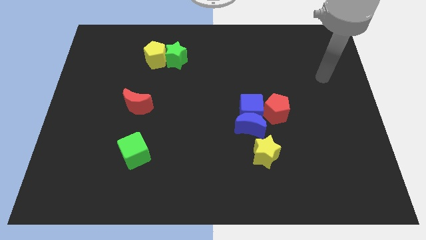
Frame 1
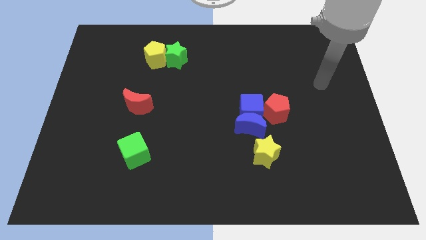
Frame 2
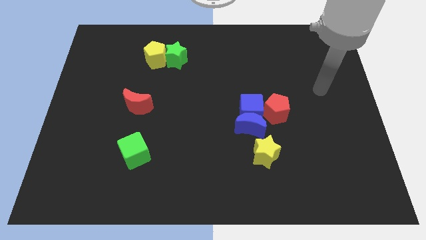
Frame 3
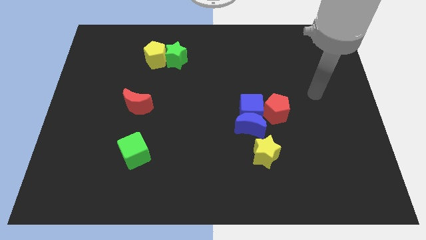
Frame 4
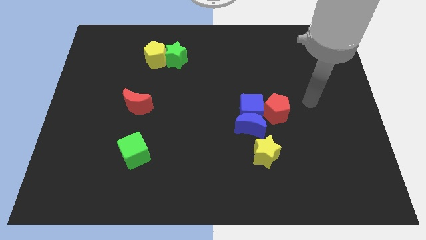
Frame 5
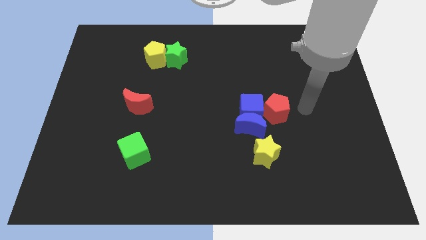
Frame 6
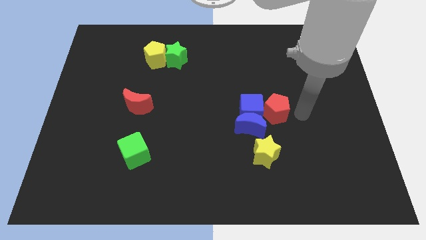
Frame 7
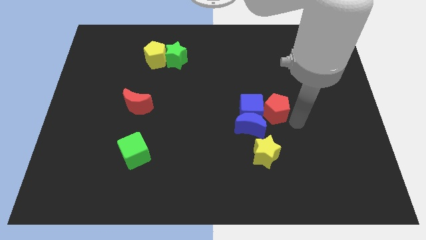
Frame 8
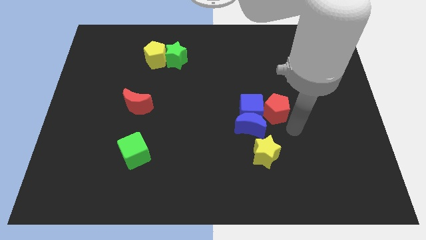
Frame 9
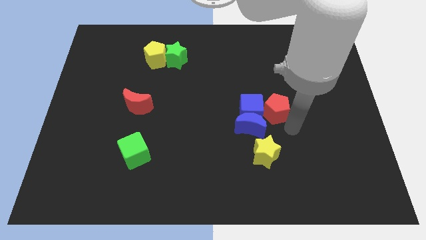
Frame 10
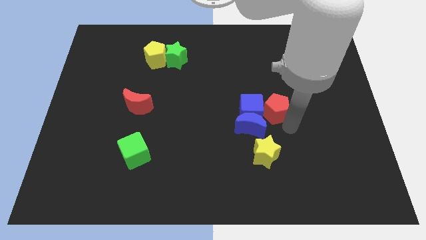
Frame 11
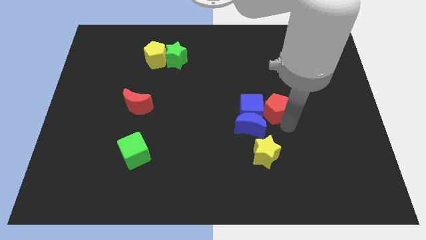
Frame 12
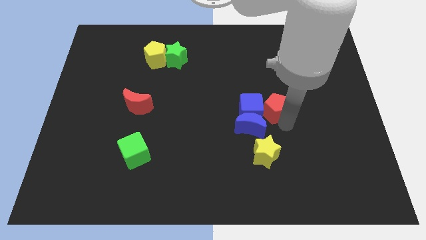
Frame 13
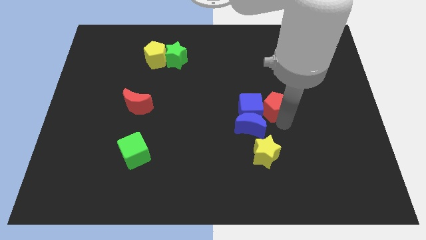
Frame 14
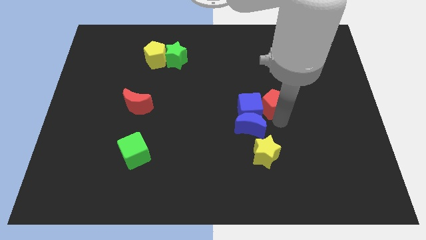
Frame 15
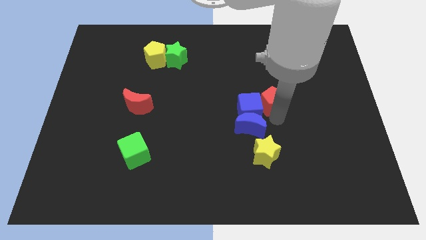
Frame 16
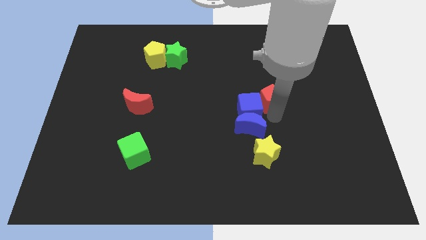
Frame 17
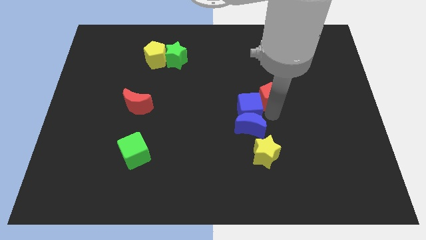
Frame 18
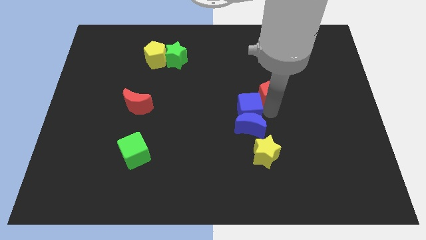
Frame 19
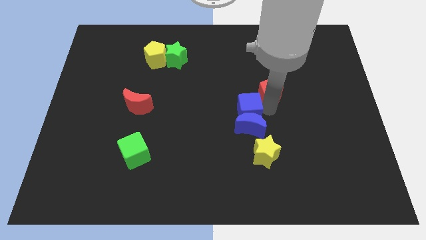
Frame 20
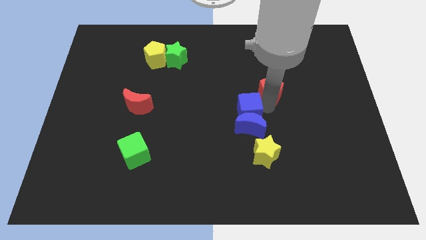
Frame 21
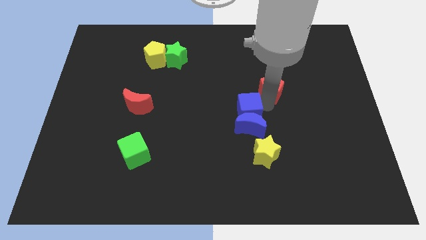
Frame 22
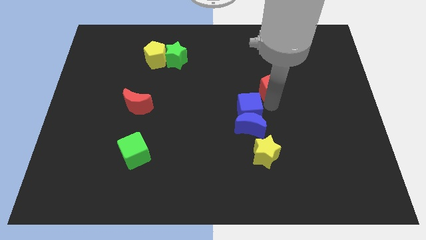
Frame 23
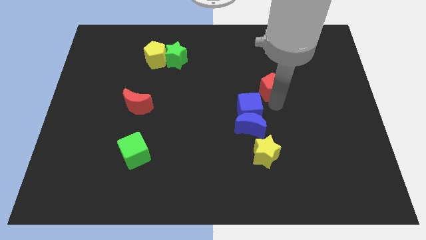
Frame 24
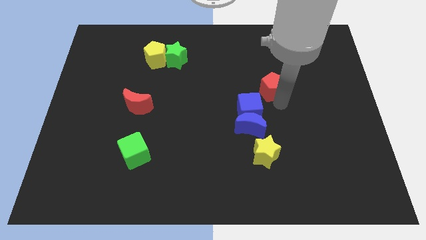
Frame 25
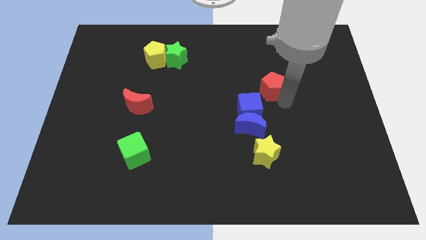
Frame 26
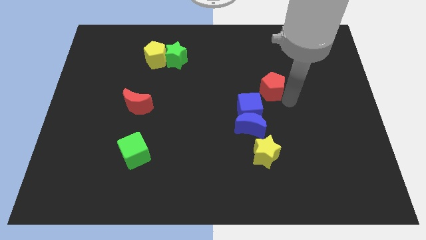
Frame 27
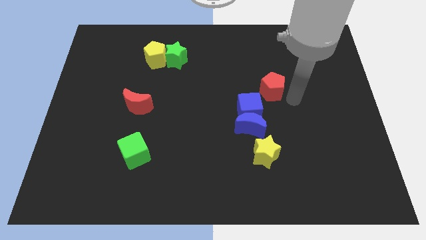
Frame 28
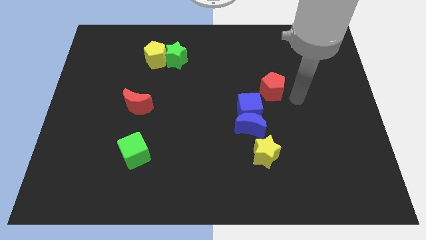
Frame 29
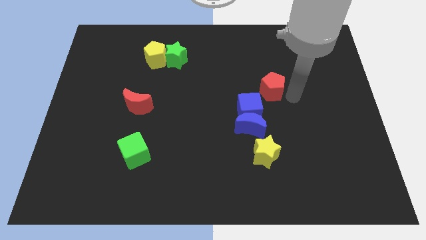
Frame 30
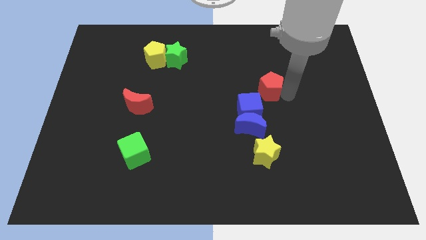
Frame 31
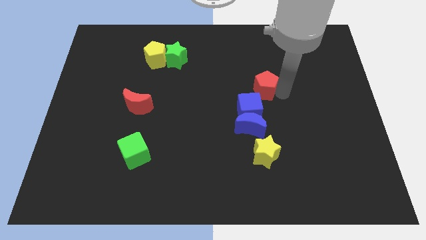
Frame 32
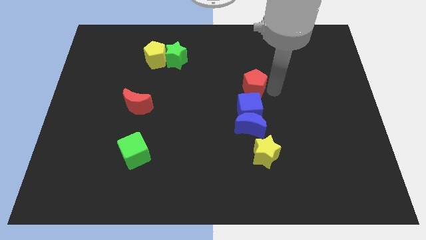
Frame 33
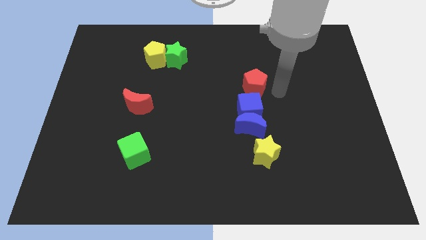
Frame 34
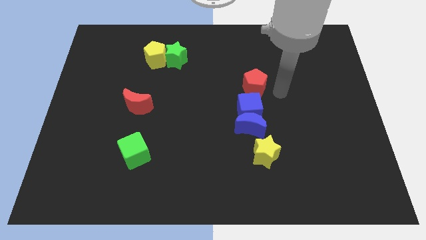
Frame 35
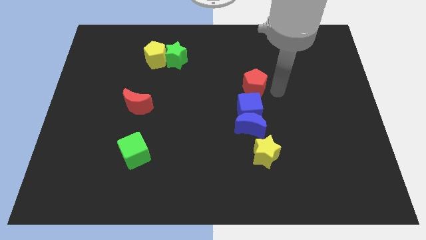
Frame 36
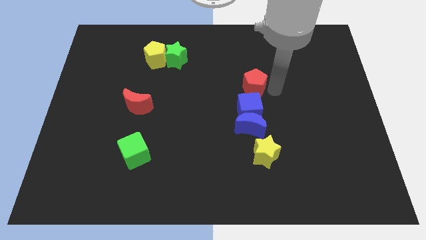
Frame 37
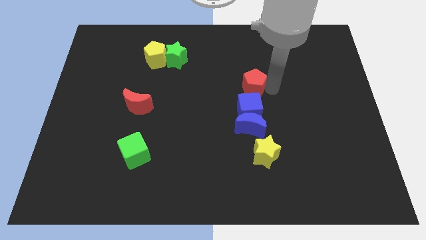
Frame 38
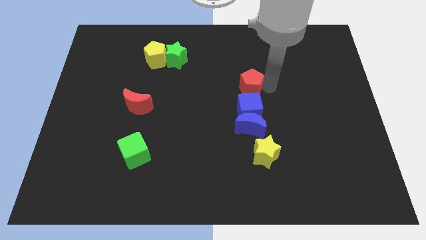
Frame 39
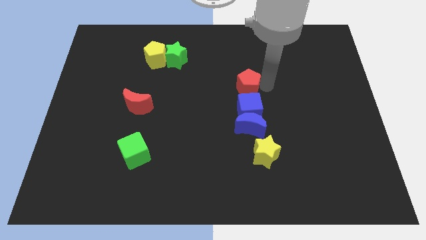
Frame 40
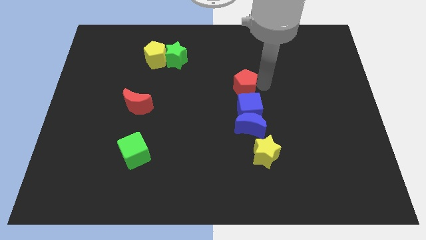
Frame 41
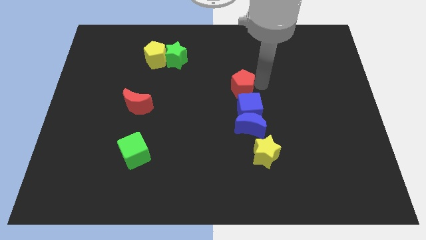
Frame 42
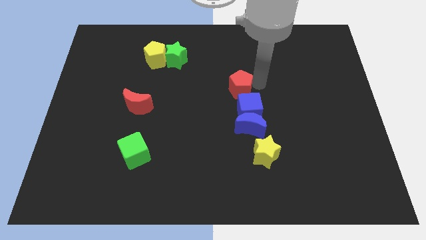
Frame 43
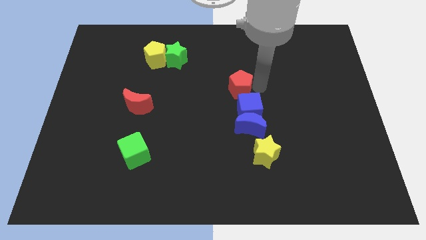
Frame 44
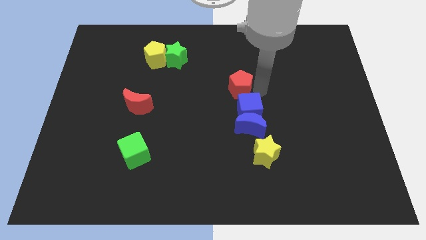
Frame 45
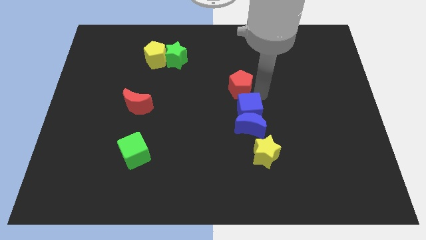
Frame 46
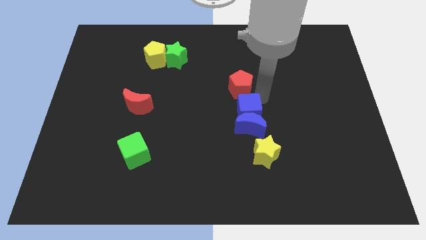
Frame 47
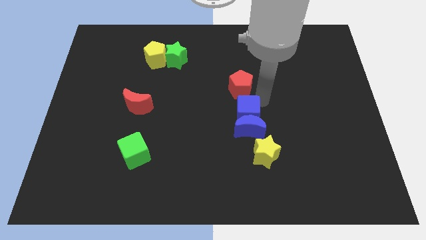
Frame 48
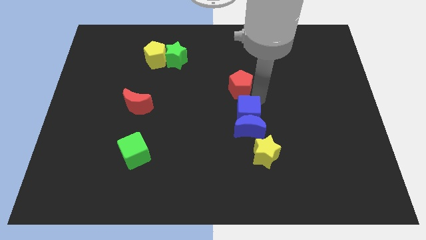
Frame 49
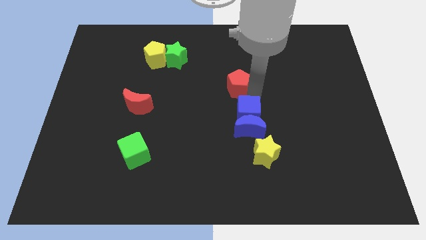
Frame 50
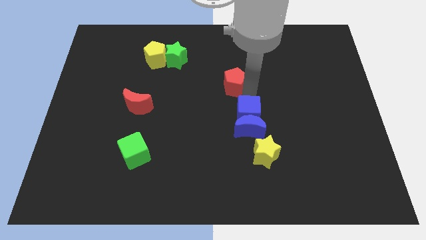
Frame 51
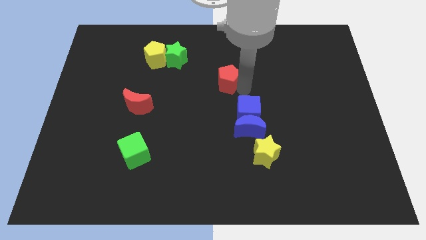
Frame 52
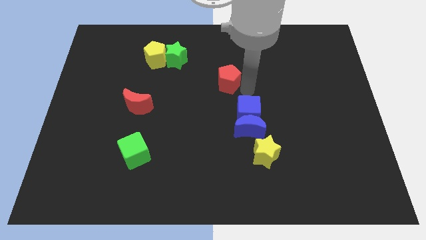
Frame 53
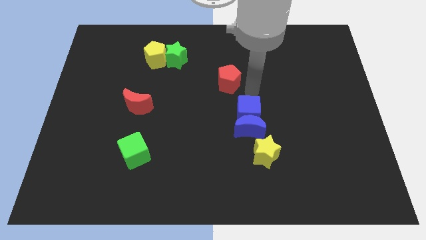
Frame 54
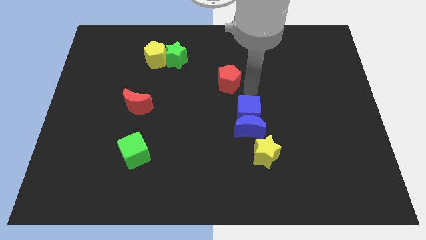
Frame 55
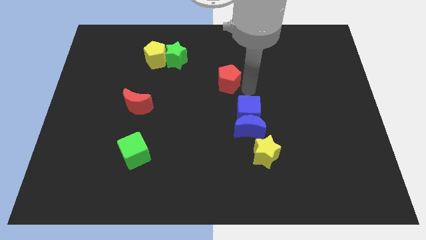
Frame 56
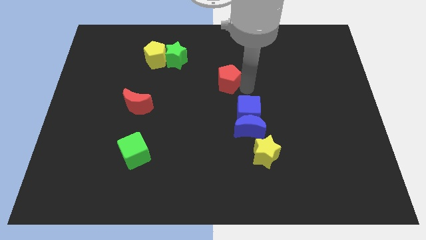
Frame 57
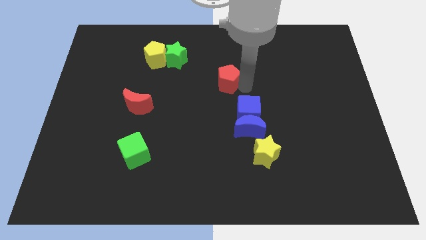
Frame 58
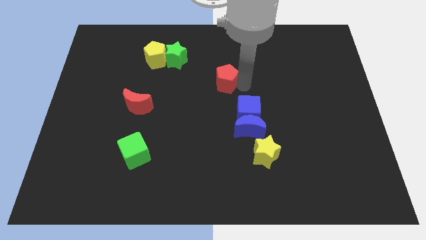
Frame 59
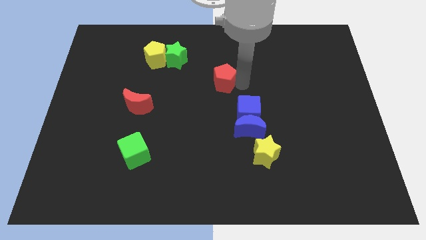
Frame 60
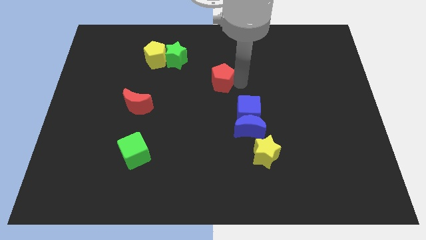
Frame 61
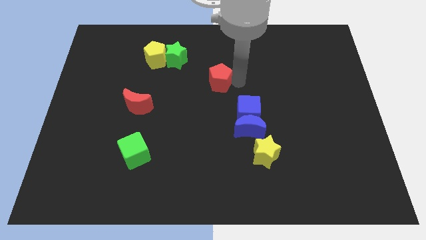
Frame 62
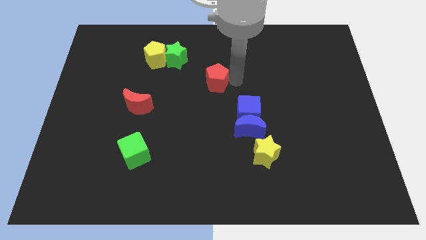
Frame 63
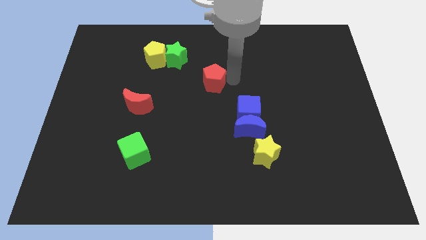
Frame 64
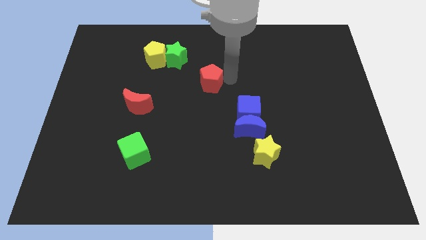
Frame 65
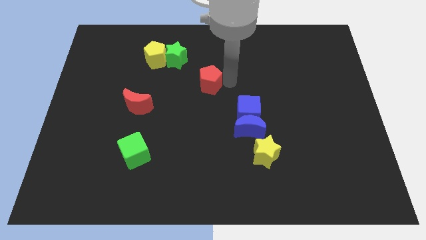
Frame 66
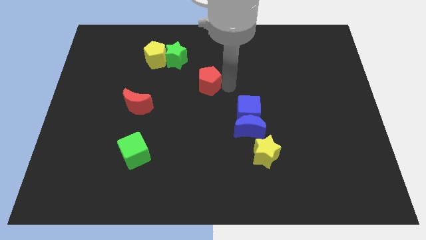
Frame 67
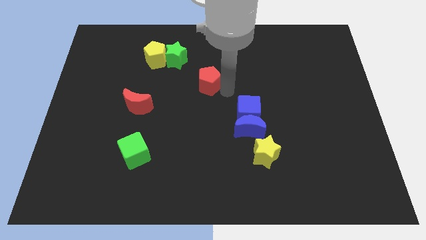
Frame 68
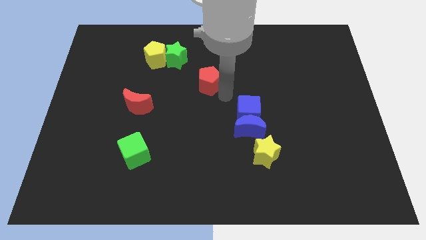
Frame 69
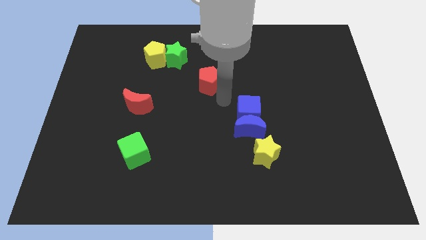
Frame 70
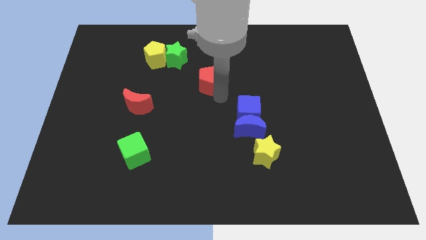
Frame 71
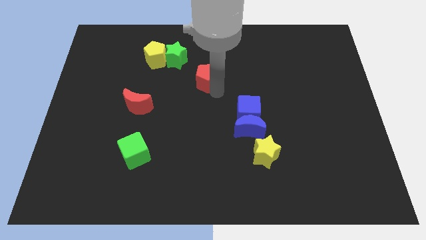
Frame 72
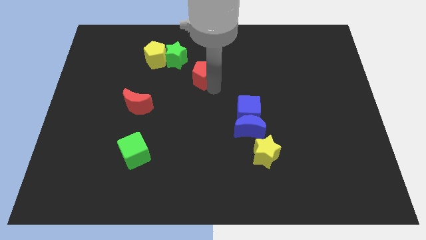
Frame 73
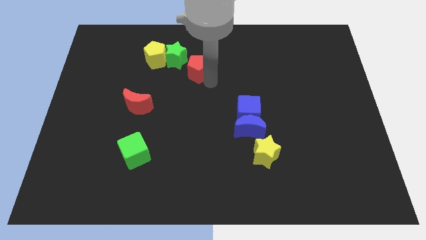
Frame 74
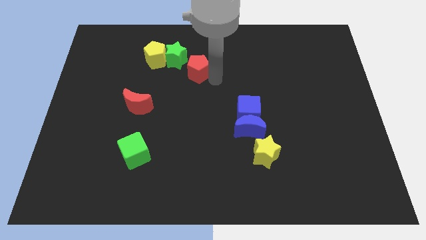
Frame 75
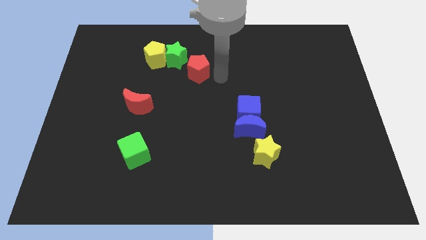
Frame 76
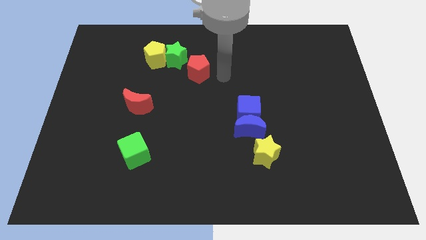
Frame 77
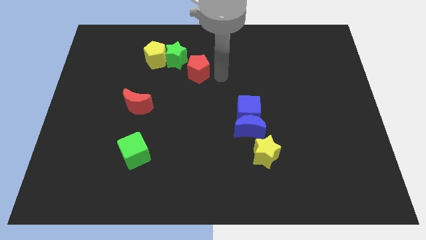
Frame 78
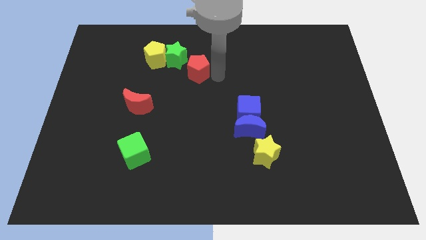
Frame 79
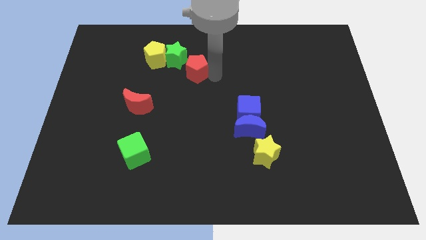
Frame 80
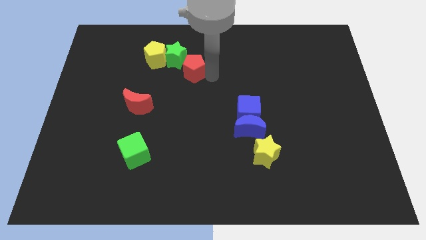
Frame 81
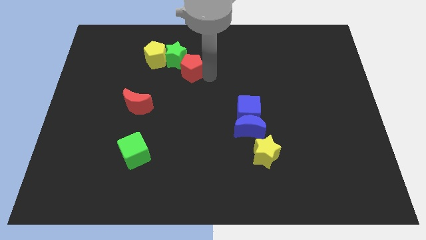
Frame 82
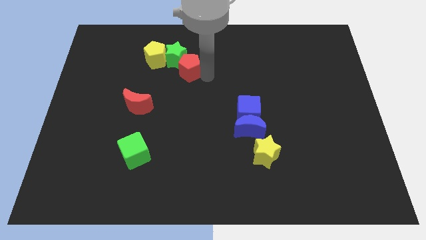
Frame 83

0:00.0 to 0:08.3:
move the red pentagon close to the green star
